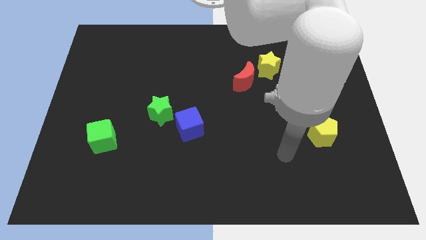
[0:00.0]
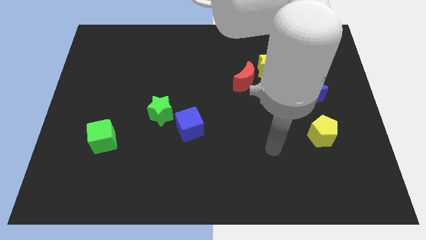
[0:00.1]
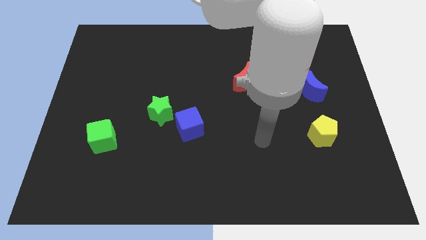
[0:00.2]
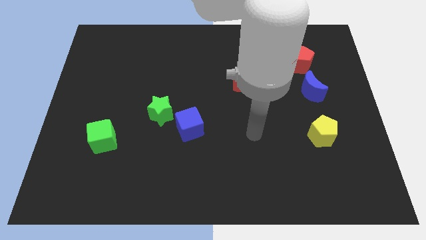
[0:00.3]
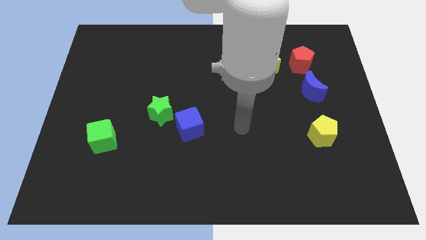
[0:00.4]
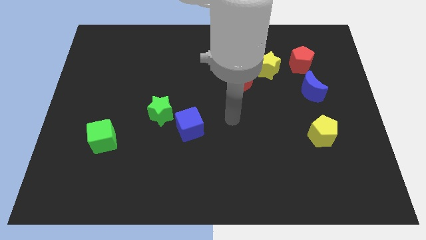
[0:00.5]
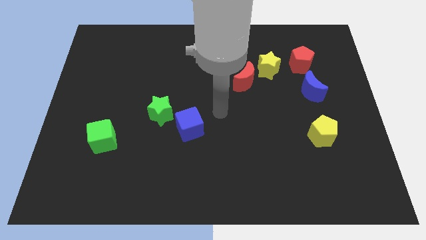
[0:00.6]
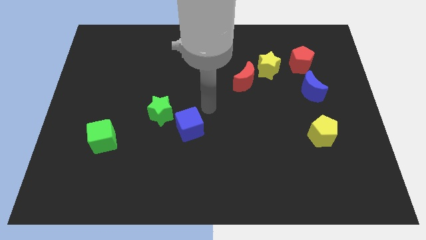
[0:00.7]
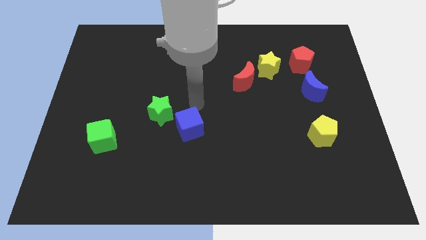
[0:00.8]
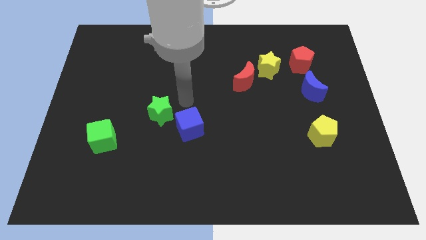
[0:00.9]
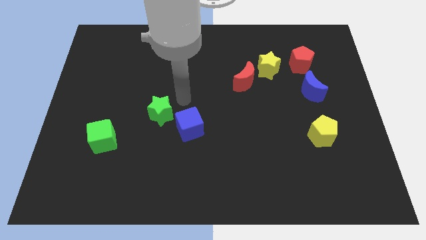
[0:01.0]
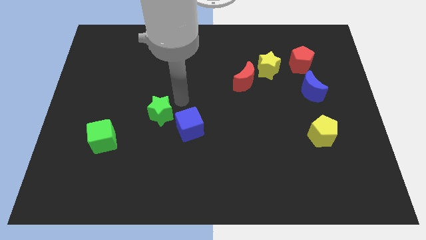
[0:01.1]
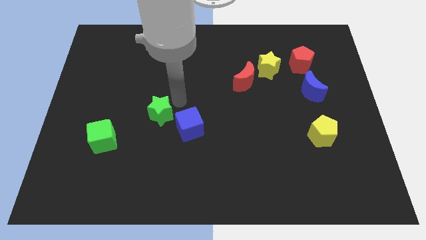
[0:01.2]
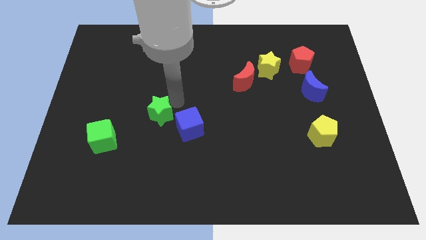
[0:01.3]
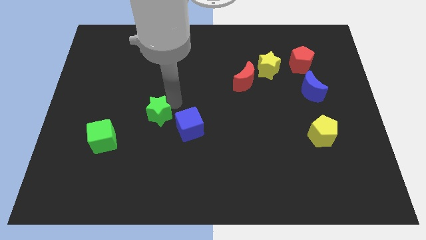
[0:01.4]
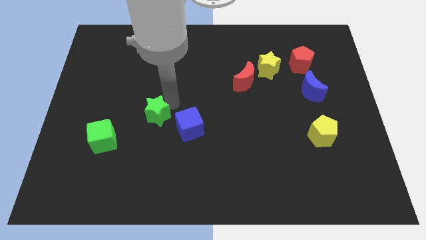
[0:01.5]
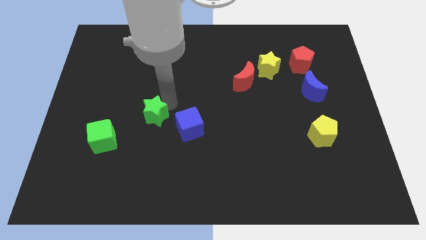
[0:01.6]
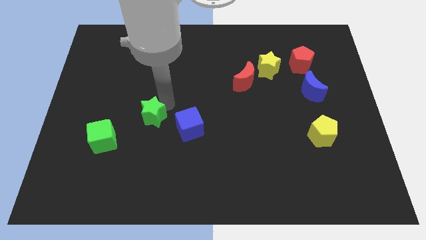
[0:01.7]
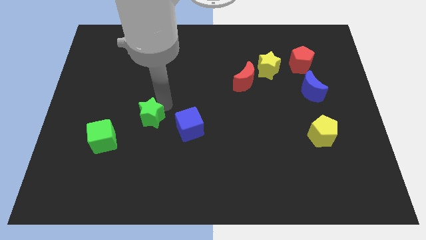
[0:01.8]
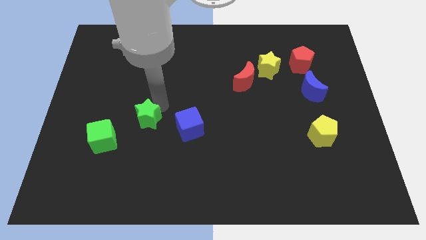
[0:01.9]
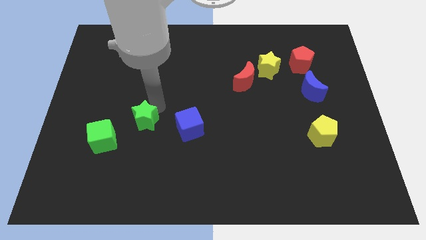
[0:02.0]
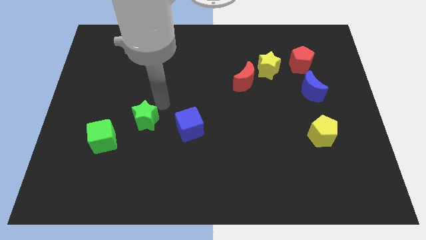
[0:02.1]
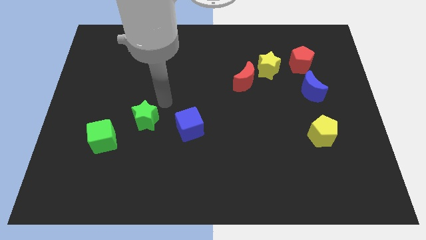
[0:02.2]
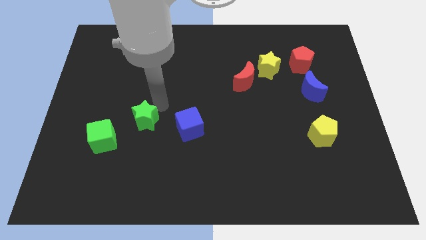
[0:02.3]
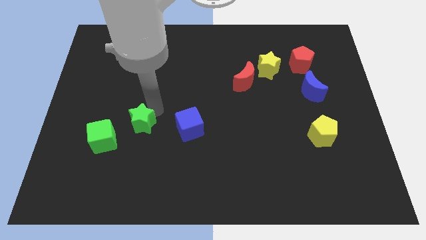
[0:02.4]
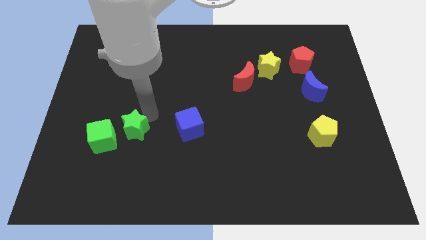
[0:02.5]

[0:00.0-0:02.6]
slightly move the green star down and left diagonally

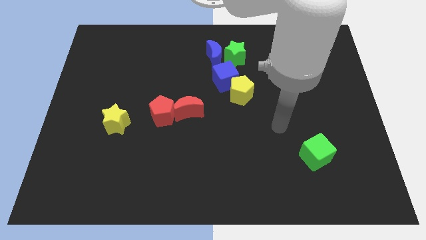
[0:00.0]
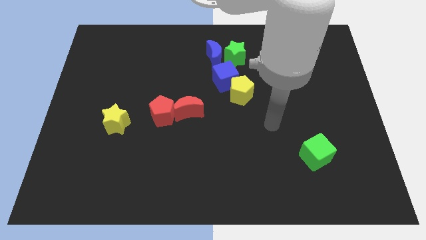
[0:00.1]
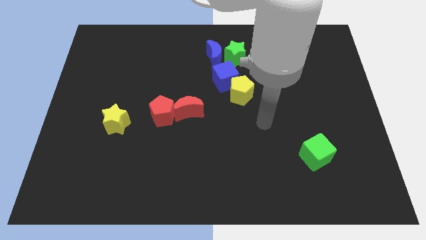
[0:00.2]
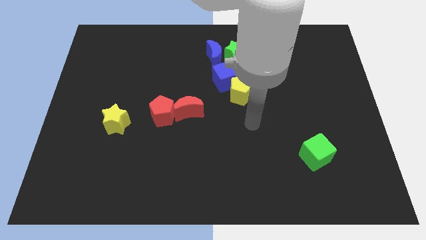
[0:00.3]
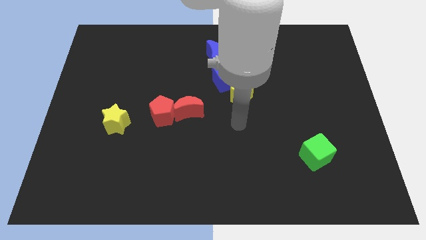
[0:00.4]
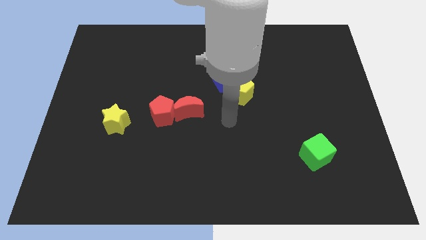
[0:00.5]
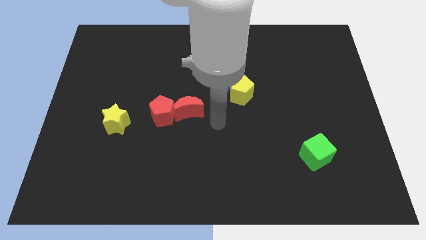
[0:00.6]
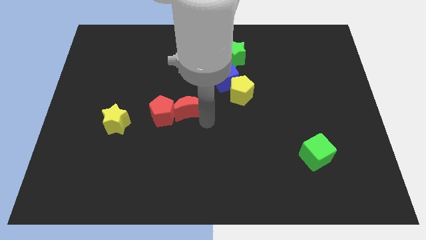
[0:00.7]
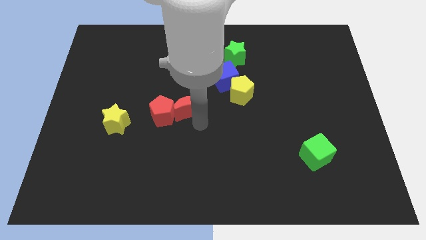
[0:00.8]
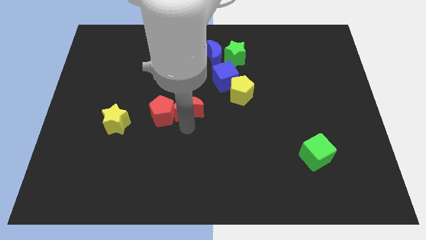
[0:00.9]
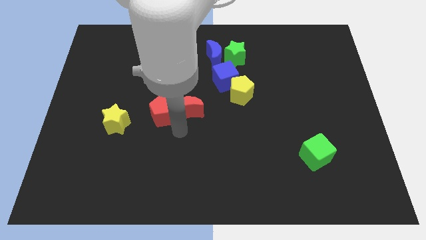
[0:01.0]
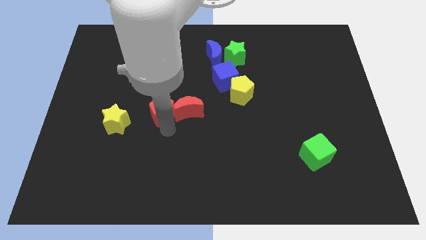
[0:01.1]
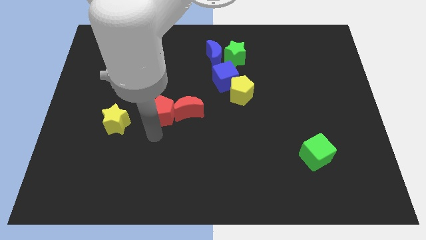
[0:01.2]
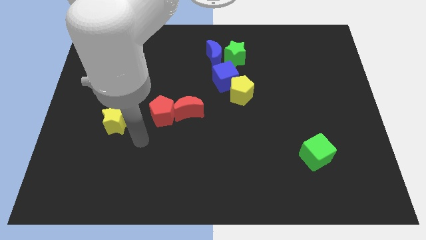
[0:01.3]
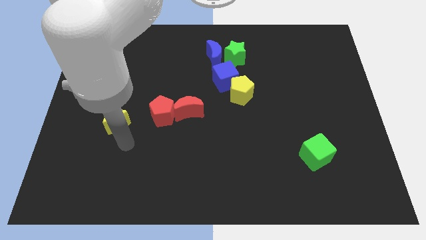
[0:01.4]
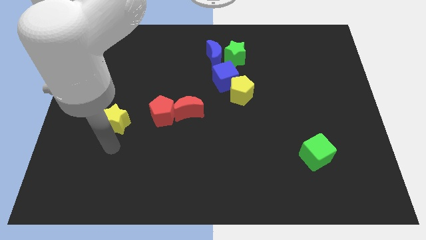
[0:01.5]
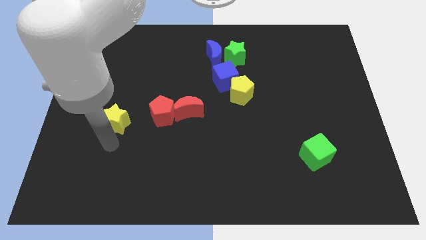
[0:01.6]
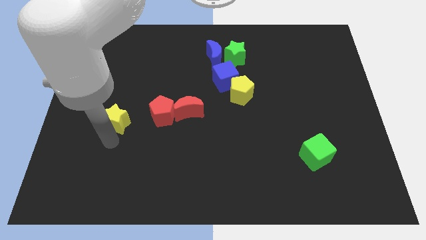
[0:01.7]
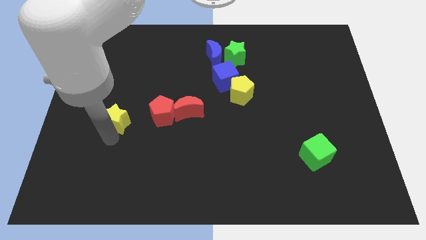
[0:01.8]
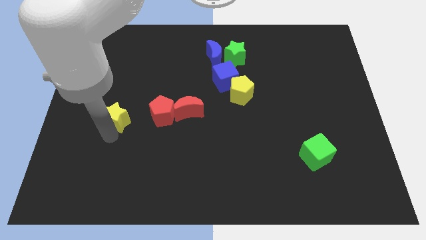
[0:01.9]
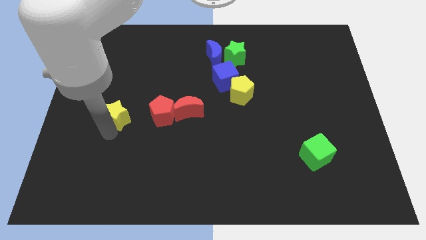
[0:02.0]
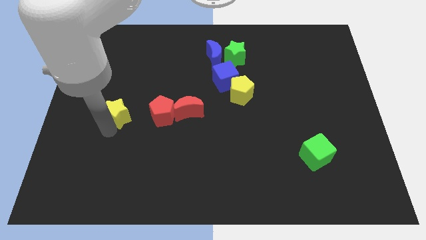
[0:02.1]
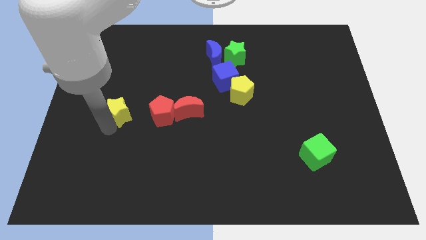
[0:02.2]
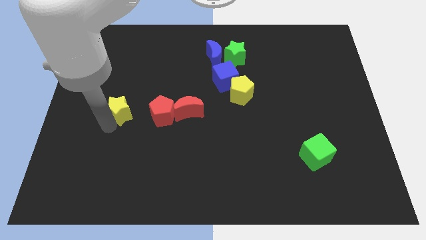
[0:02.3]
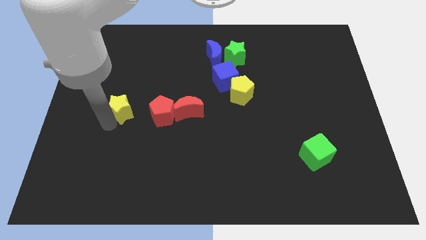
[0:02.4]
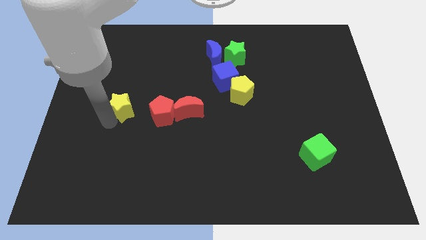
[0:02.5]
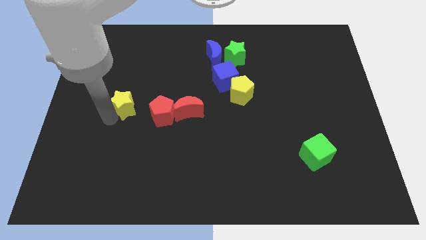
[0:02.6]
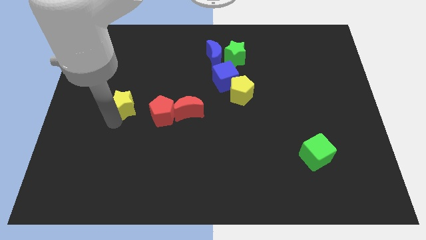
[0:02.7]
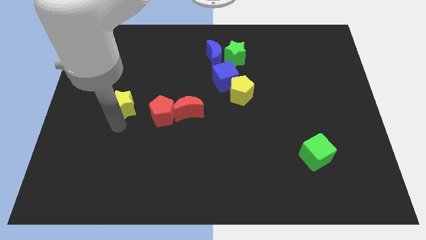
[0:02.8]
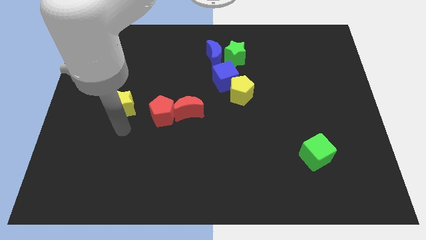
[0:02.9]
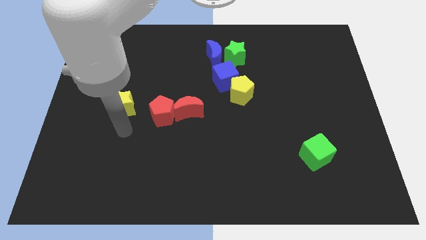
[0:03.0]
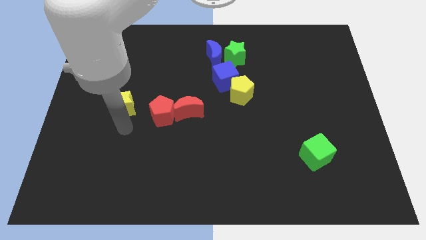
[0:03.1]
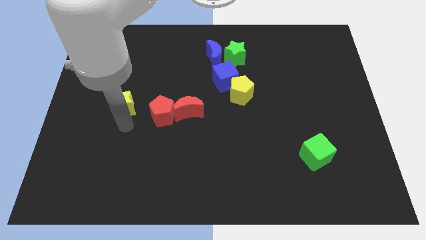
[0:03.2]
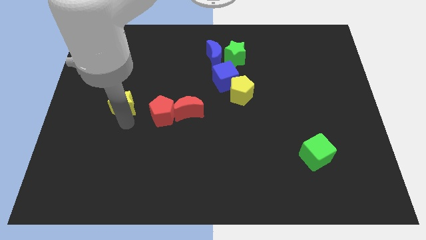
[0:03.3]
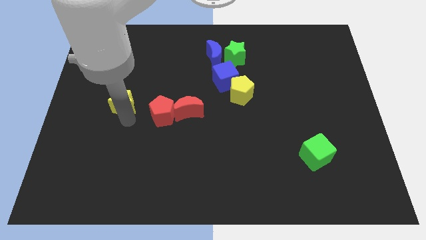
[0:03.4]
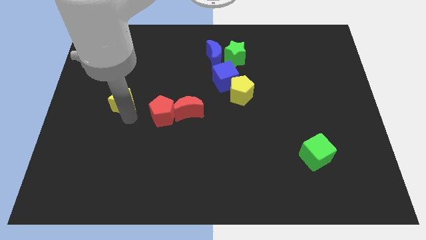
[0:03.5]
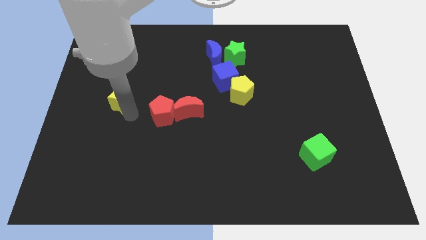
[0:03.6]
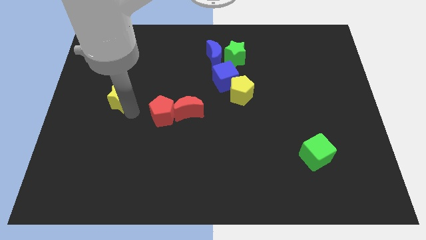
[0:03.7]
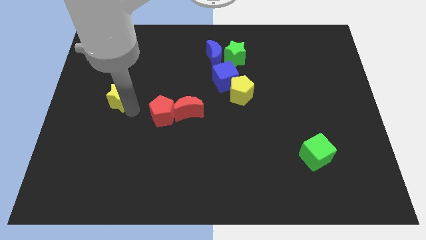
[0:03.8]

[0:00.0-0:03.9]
slightly slide the yellow star upwards

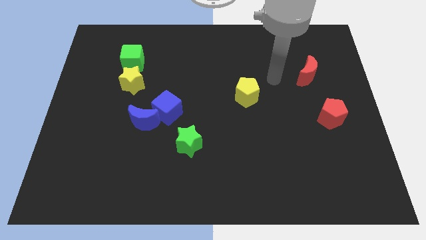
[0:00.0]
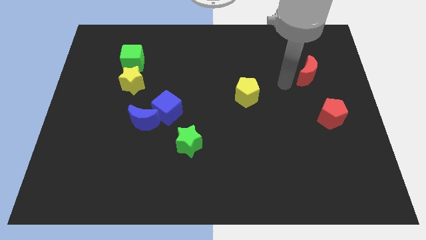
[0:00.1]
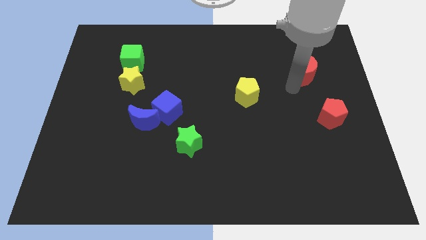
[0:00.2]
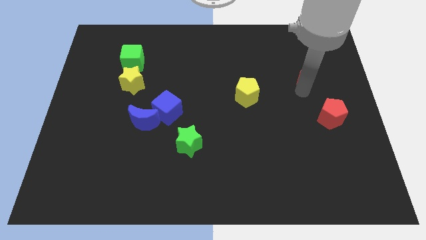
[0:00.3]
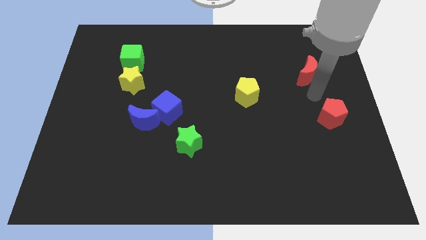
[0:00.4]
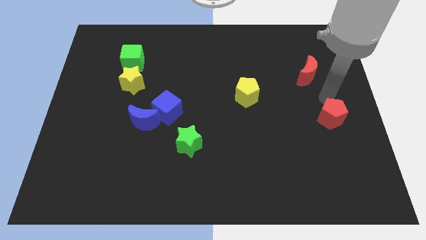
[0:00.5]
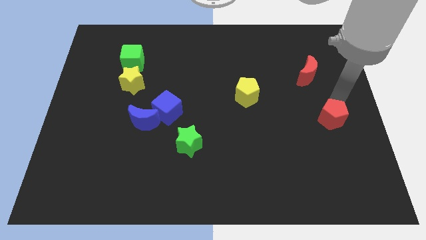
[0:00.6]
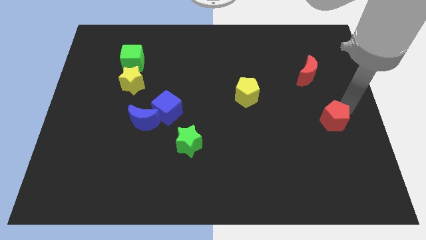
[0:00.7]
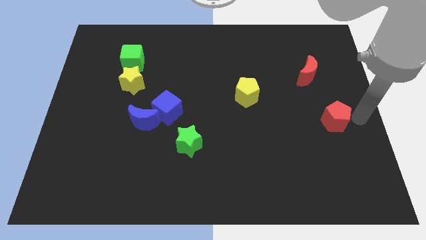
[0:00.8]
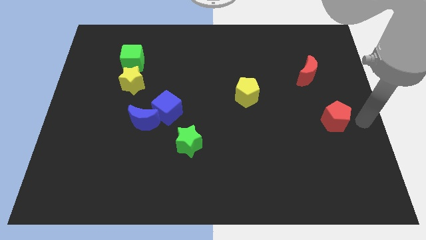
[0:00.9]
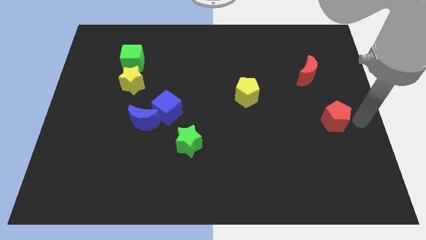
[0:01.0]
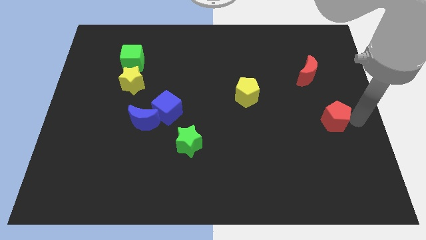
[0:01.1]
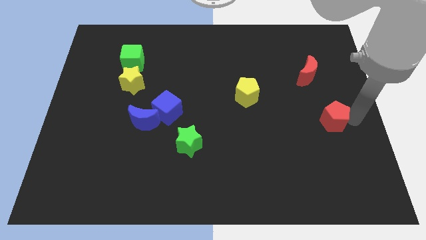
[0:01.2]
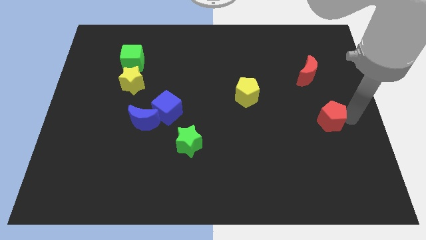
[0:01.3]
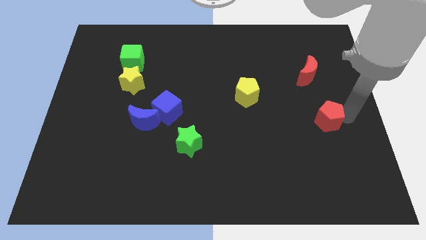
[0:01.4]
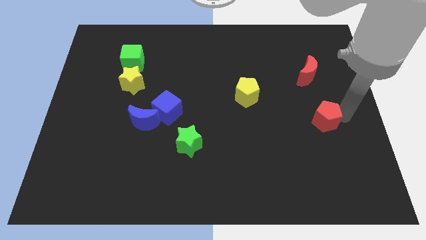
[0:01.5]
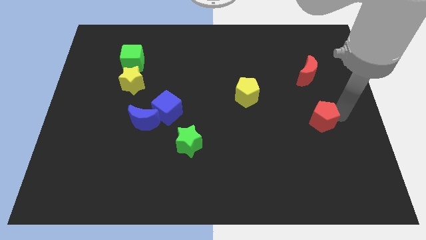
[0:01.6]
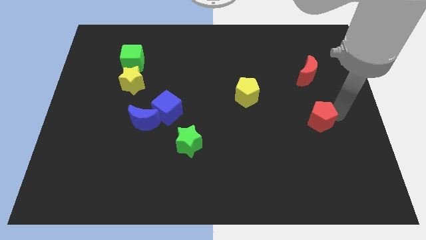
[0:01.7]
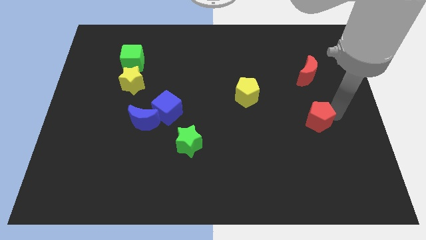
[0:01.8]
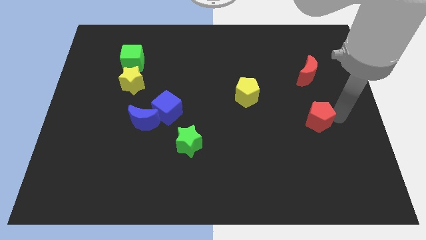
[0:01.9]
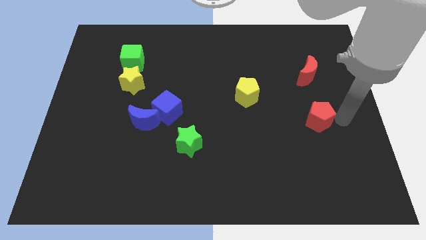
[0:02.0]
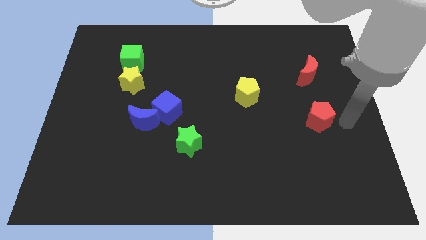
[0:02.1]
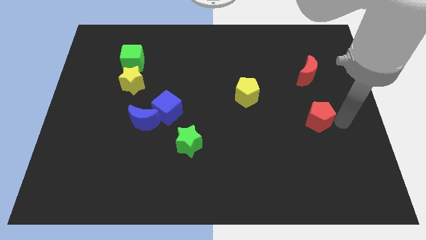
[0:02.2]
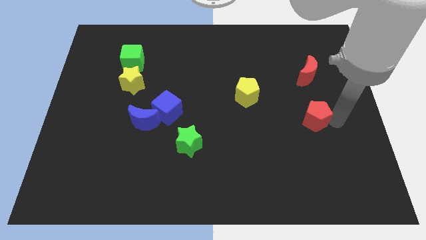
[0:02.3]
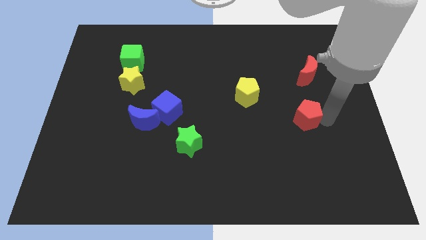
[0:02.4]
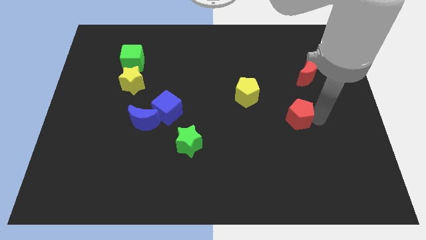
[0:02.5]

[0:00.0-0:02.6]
slide the red pentagon slightly to the left
